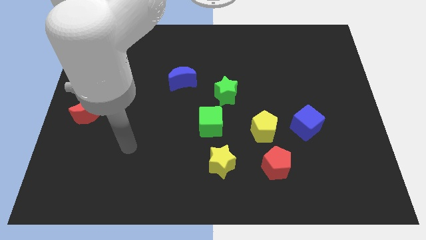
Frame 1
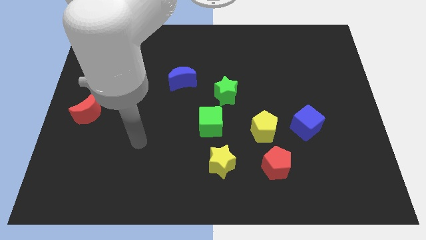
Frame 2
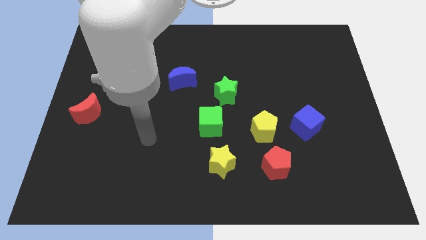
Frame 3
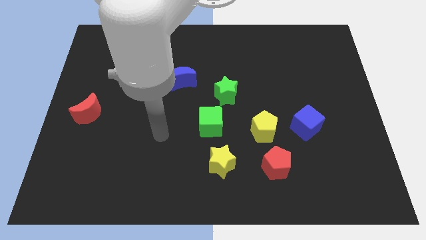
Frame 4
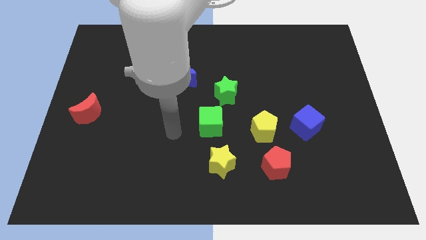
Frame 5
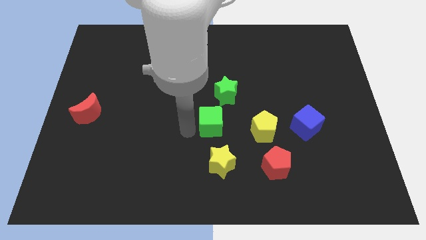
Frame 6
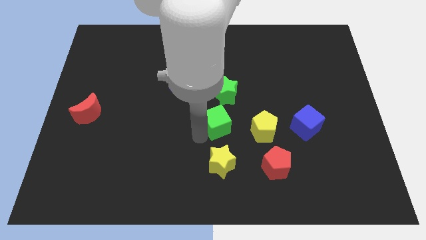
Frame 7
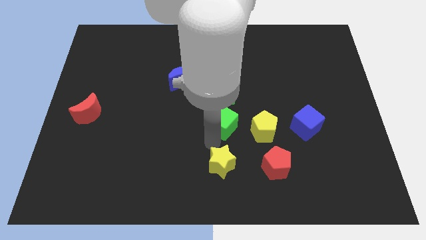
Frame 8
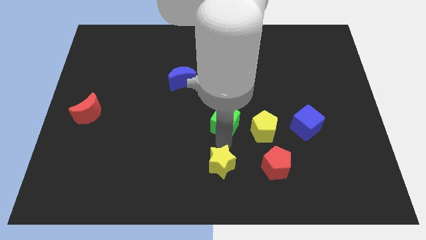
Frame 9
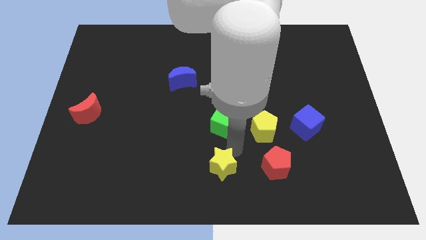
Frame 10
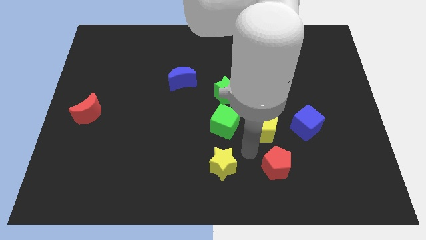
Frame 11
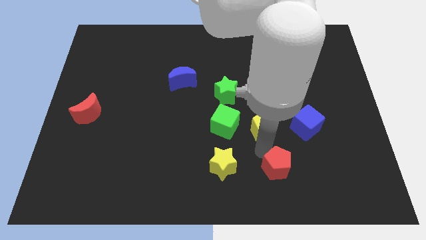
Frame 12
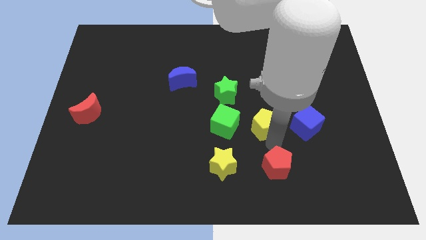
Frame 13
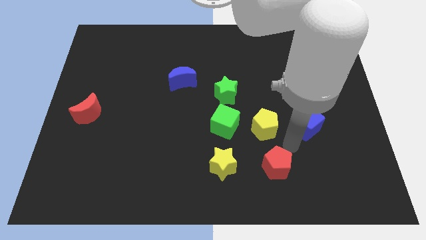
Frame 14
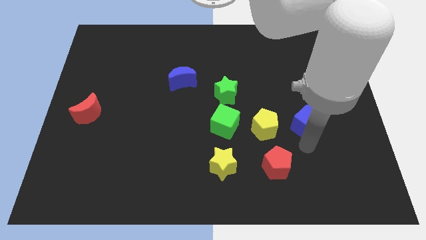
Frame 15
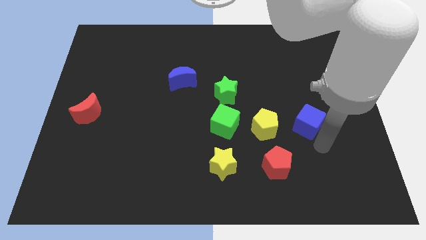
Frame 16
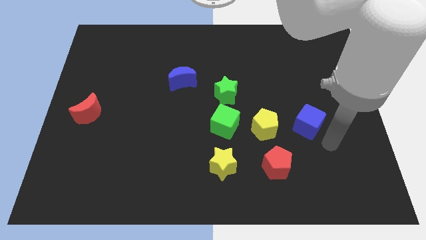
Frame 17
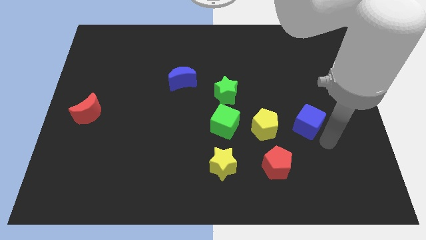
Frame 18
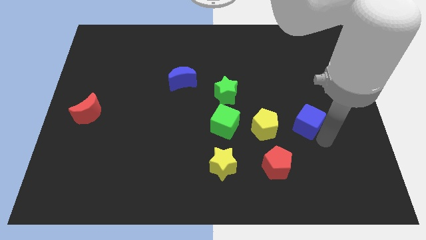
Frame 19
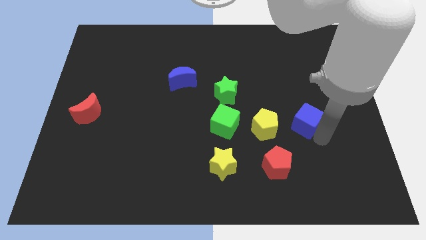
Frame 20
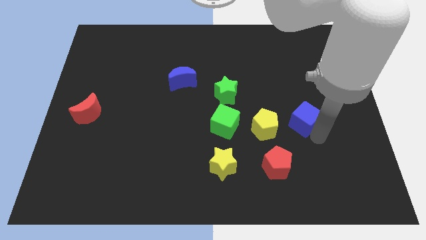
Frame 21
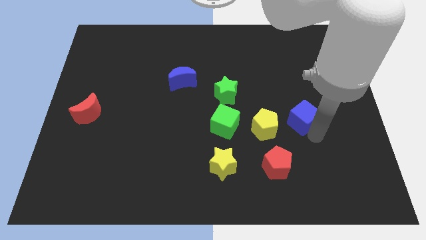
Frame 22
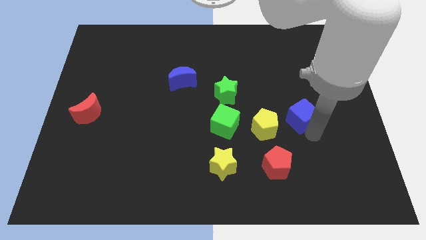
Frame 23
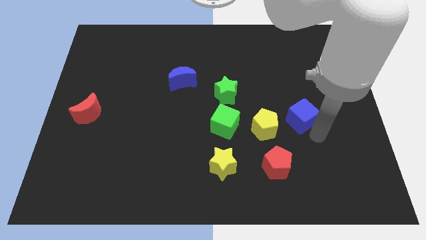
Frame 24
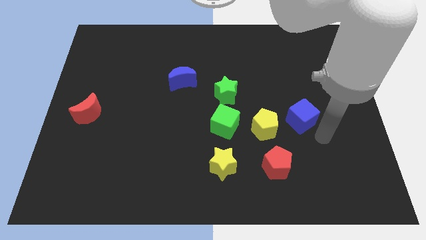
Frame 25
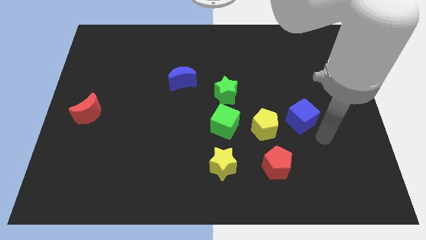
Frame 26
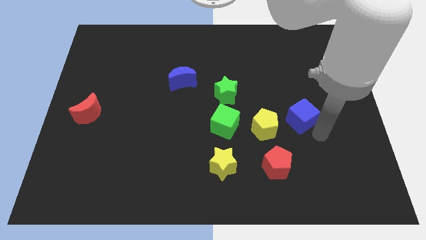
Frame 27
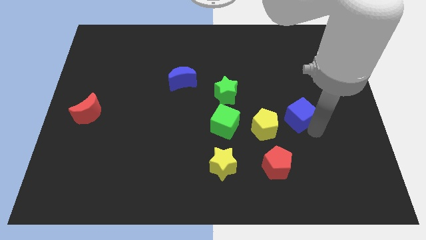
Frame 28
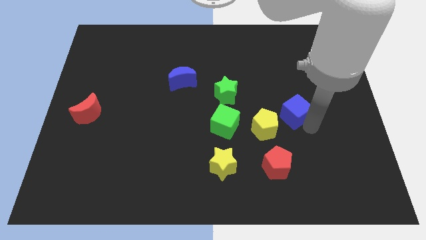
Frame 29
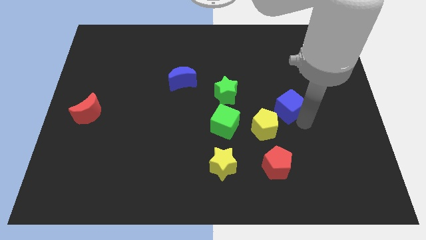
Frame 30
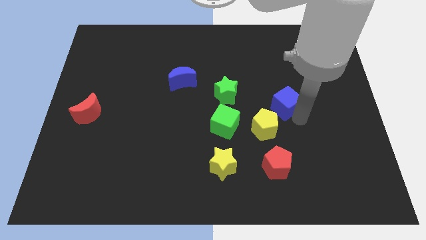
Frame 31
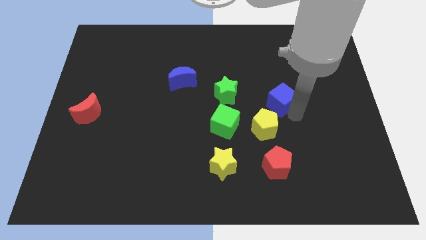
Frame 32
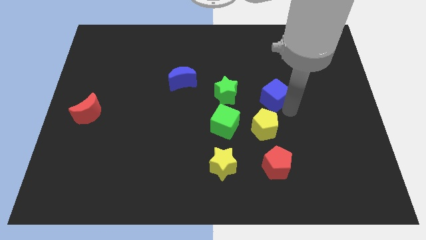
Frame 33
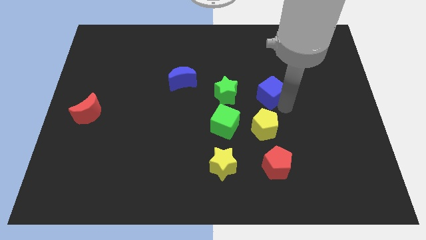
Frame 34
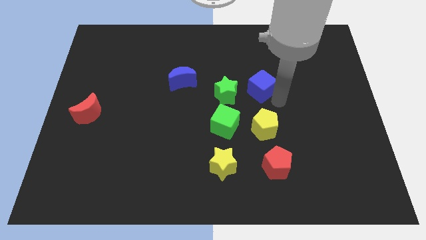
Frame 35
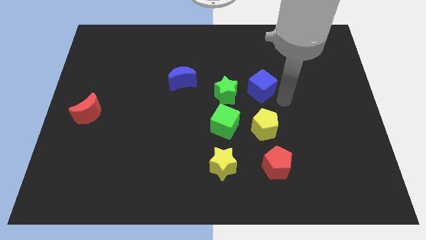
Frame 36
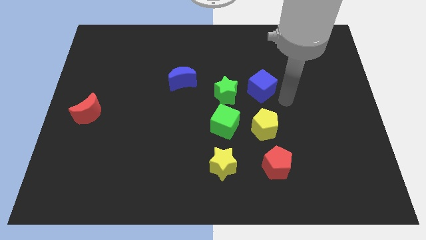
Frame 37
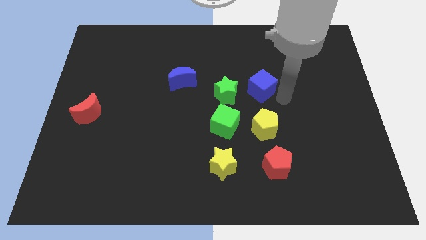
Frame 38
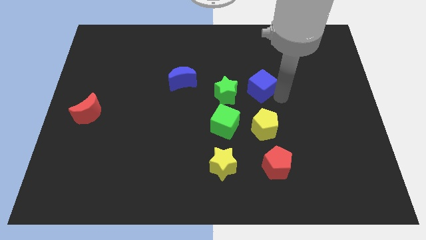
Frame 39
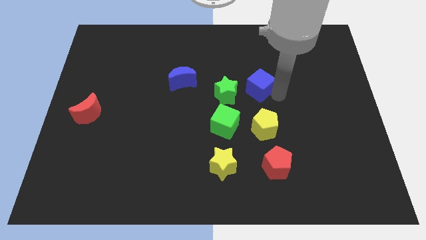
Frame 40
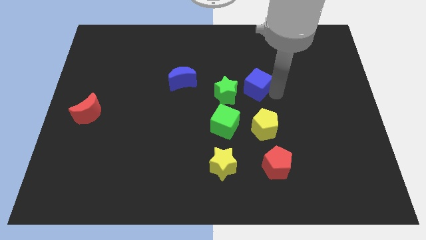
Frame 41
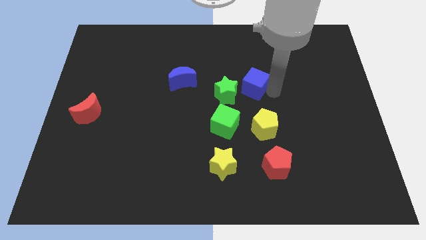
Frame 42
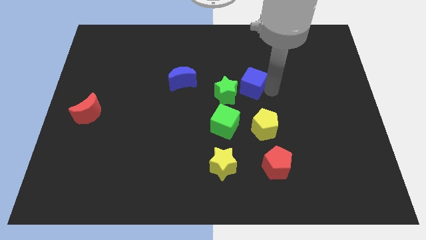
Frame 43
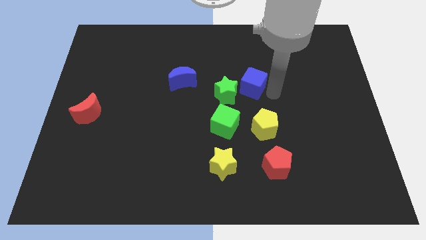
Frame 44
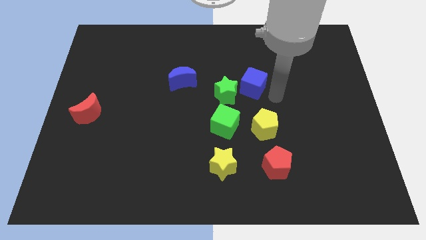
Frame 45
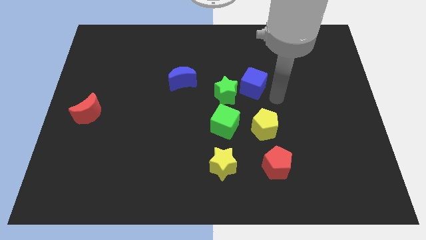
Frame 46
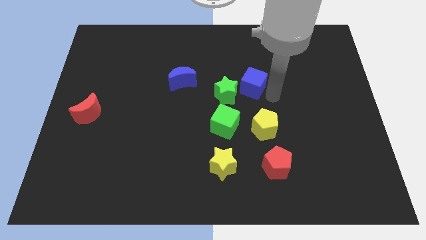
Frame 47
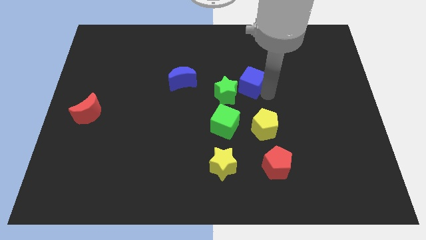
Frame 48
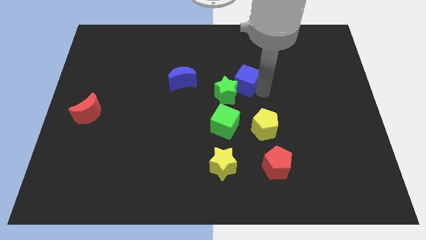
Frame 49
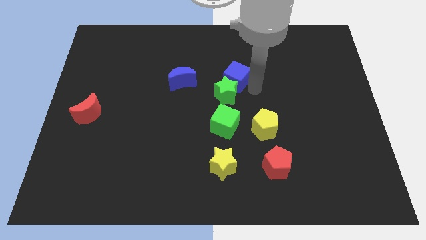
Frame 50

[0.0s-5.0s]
move the blue cube above the green star

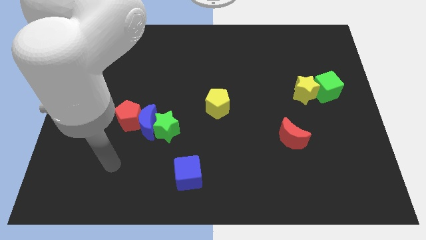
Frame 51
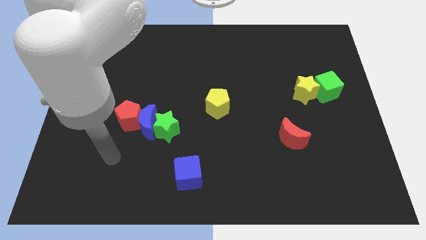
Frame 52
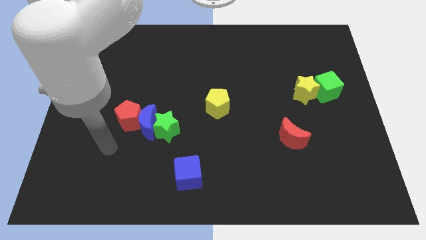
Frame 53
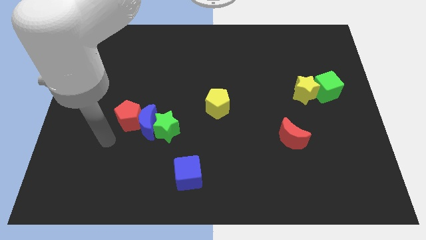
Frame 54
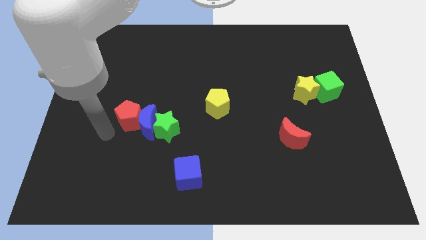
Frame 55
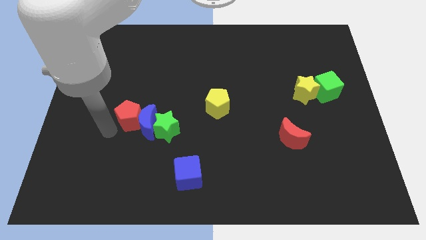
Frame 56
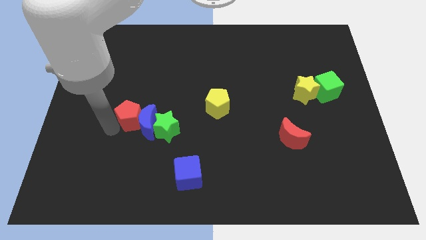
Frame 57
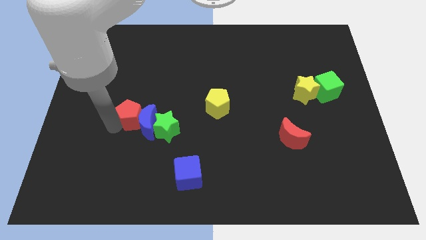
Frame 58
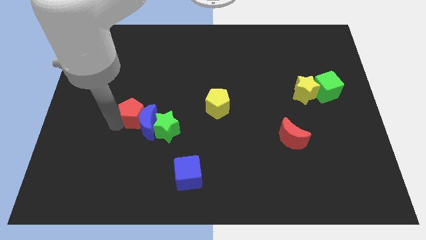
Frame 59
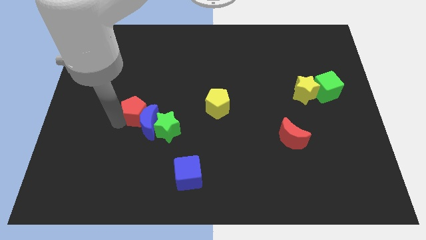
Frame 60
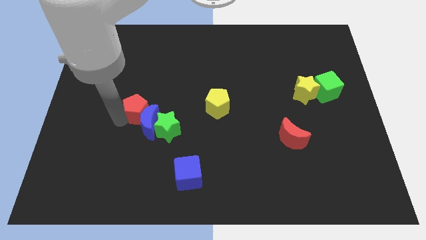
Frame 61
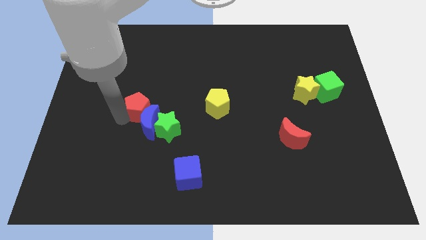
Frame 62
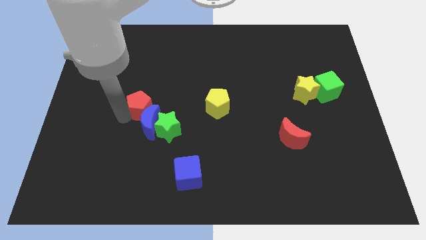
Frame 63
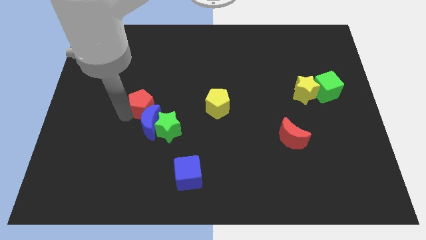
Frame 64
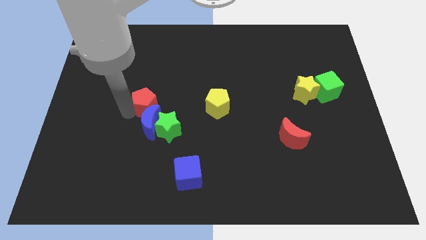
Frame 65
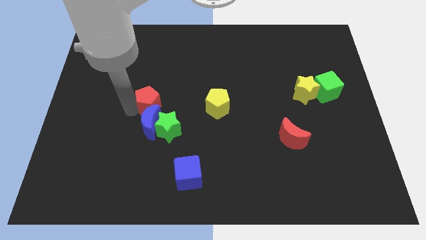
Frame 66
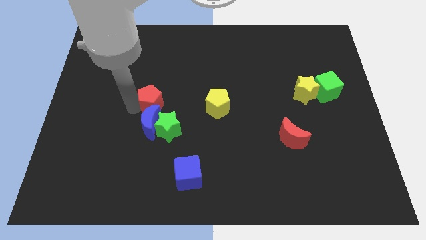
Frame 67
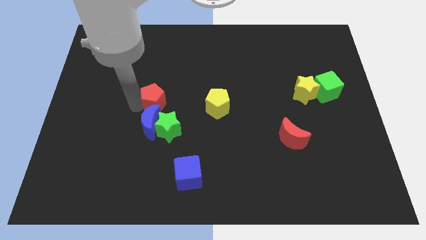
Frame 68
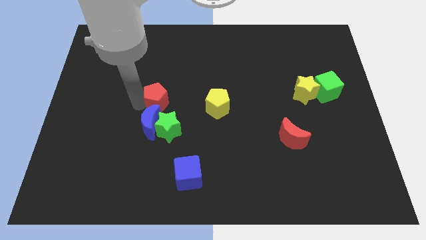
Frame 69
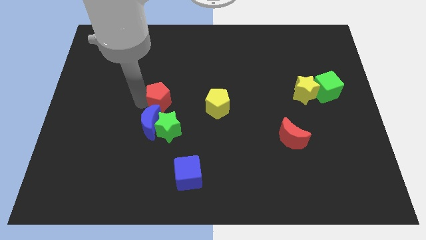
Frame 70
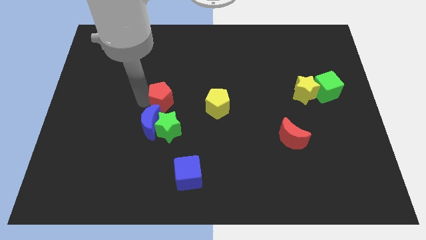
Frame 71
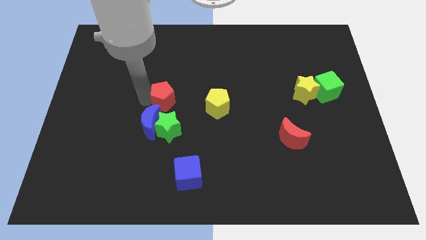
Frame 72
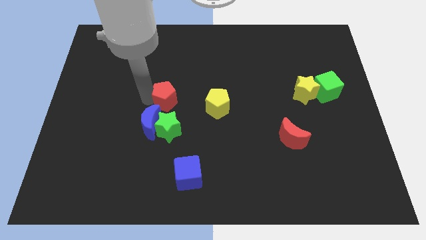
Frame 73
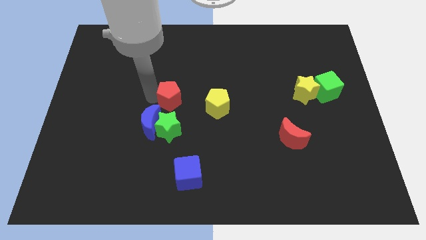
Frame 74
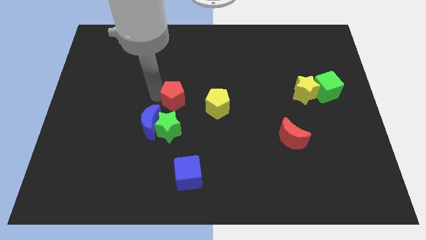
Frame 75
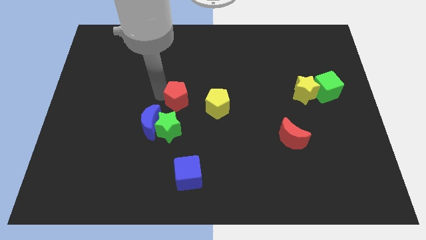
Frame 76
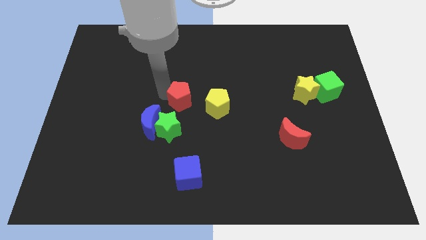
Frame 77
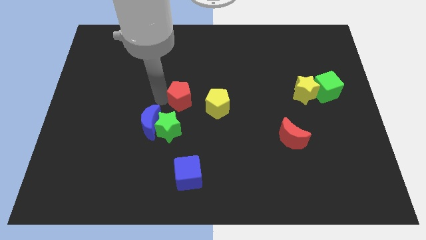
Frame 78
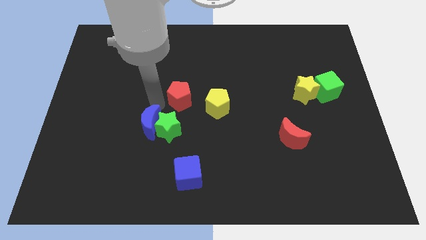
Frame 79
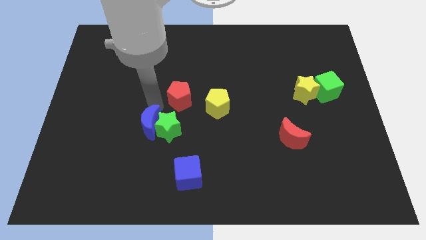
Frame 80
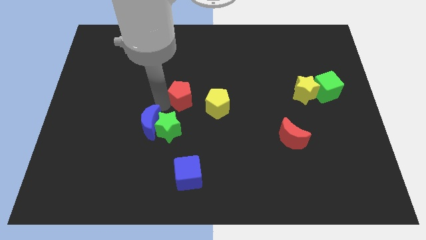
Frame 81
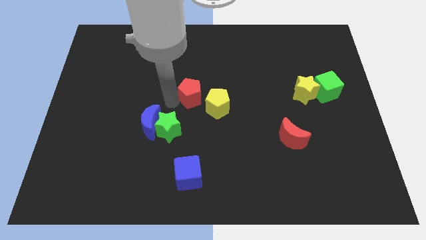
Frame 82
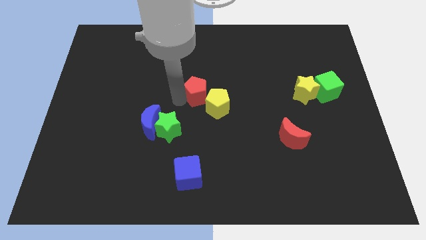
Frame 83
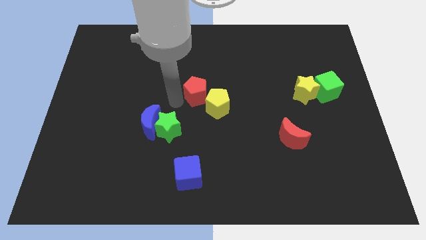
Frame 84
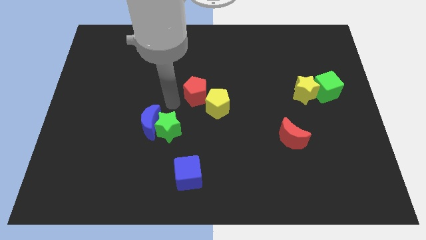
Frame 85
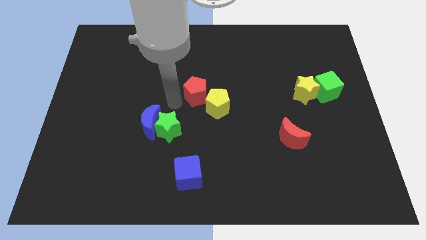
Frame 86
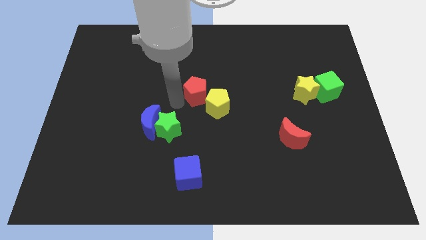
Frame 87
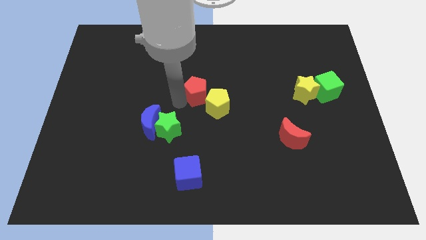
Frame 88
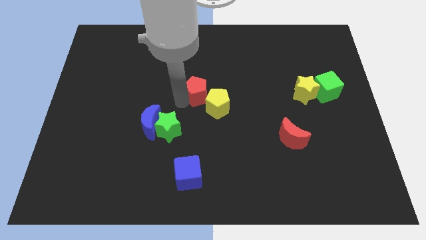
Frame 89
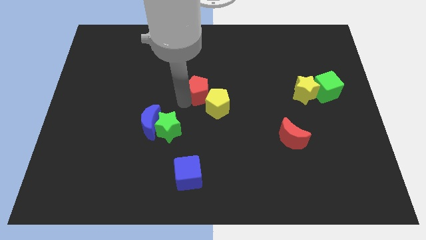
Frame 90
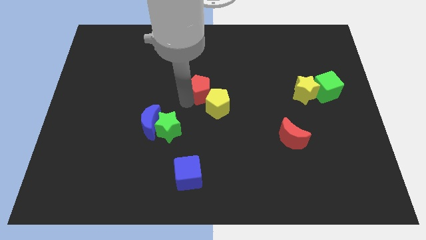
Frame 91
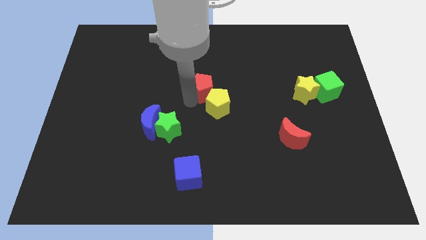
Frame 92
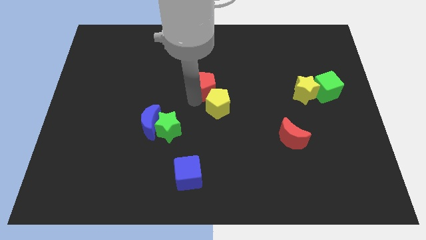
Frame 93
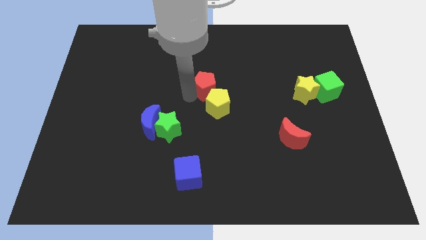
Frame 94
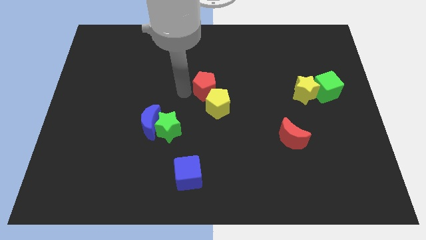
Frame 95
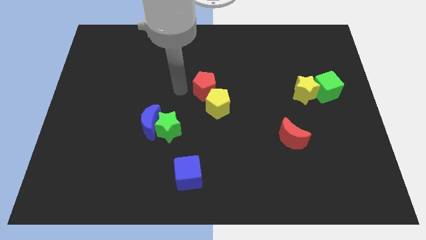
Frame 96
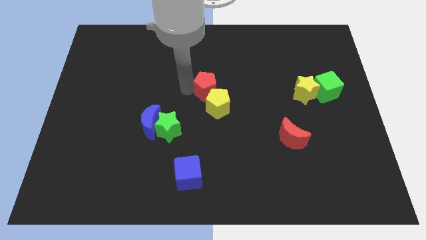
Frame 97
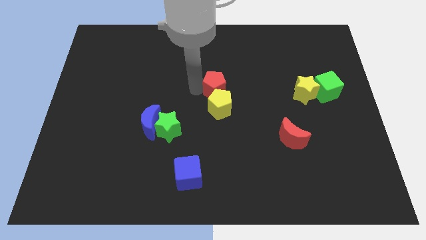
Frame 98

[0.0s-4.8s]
move the red pentagon to the top right side of the yellow pentagon
